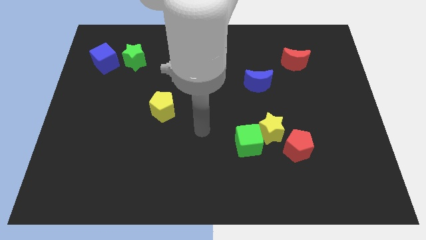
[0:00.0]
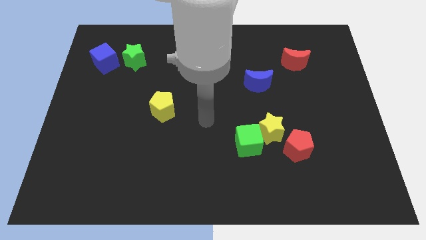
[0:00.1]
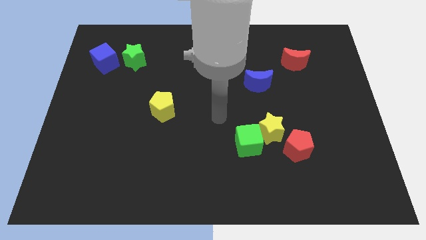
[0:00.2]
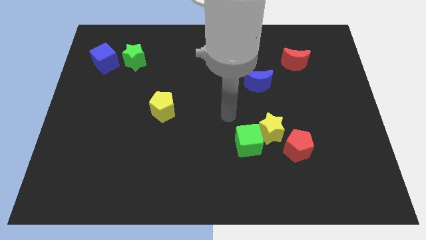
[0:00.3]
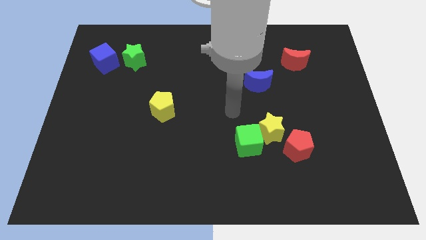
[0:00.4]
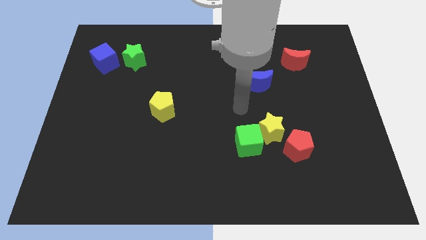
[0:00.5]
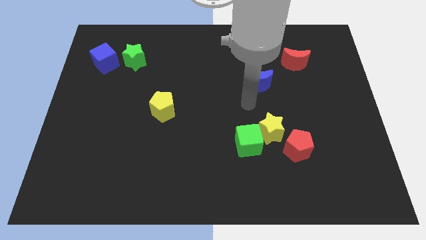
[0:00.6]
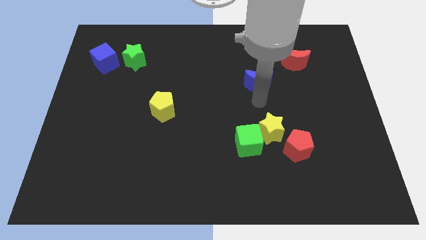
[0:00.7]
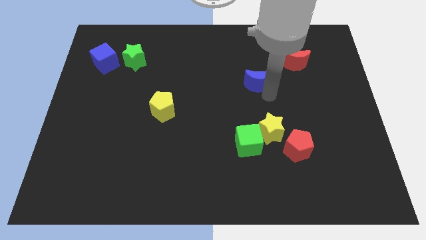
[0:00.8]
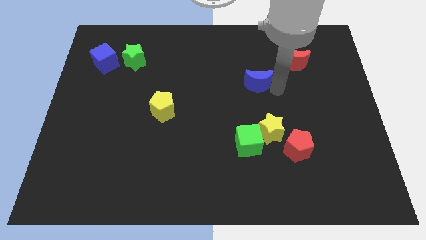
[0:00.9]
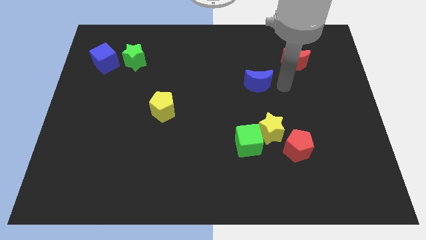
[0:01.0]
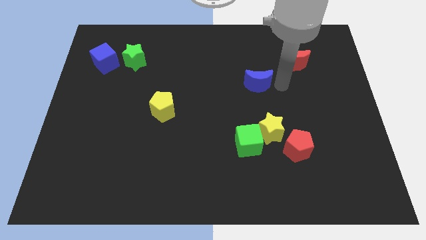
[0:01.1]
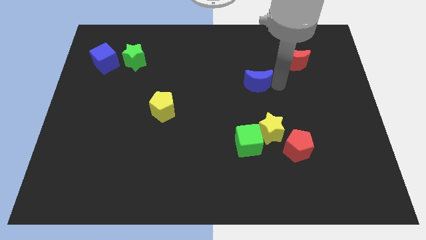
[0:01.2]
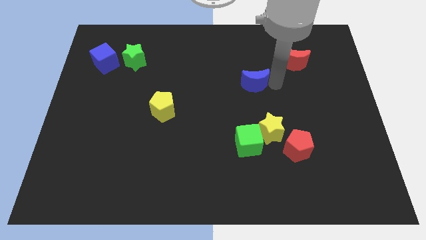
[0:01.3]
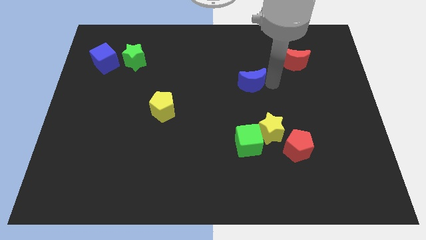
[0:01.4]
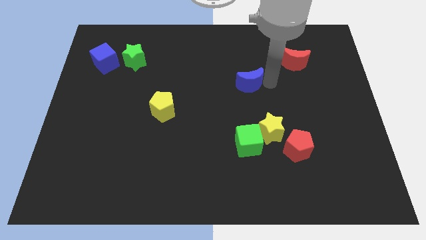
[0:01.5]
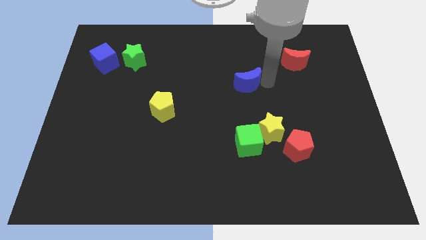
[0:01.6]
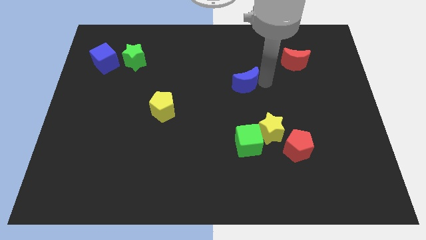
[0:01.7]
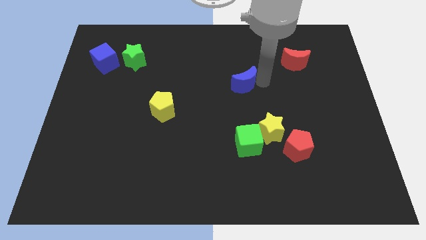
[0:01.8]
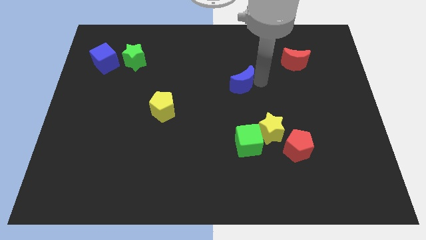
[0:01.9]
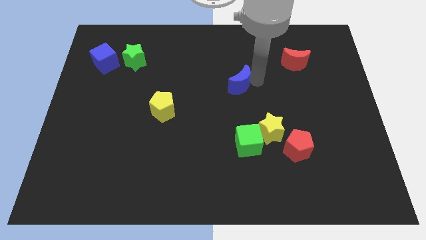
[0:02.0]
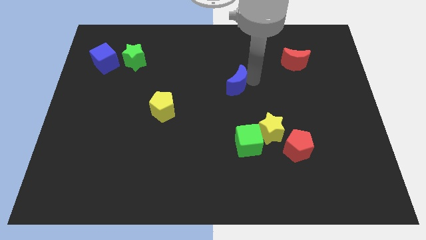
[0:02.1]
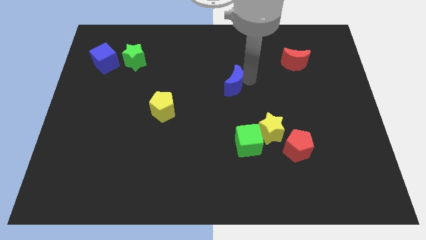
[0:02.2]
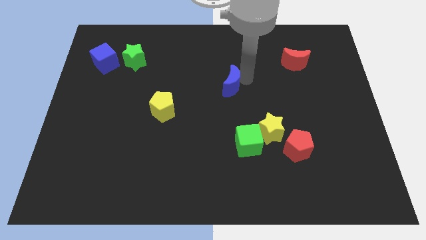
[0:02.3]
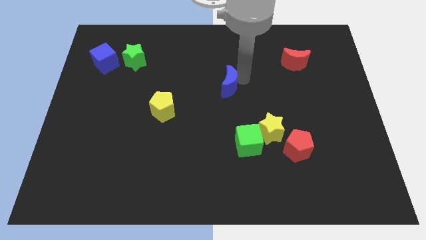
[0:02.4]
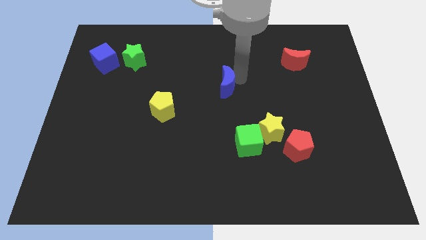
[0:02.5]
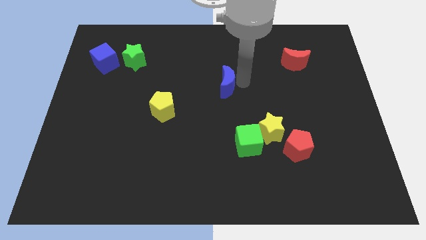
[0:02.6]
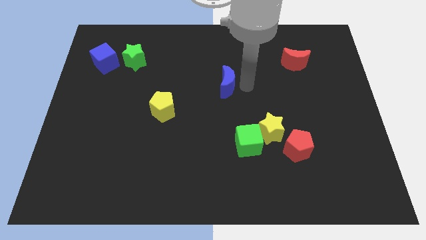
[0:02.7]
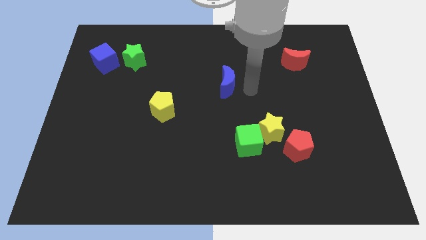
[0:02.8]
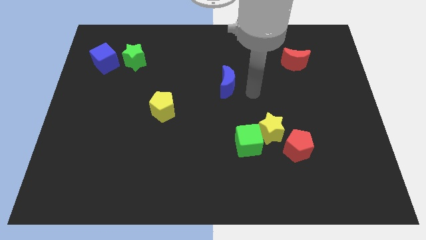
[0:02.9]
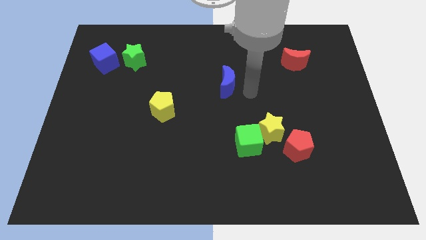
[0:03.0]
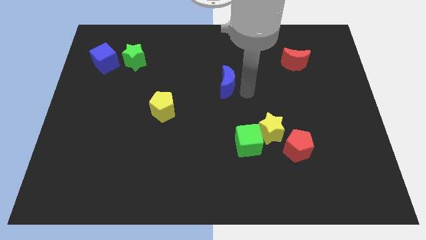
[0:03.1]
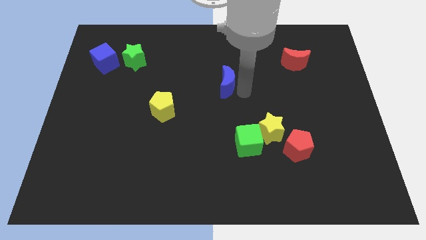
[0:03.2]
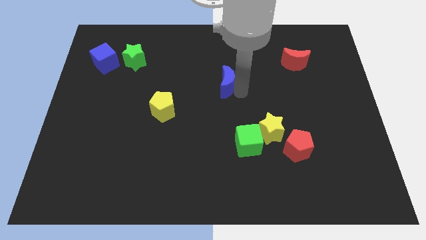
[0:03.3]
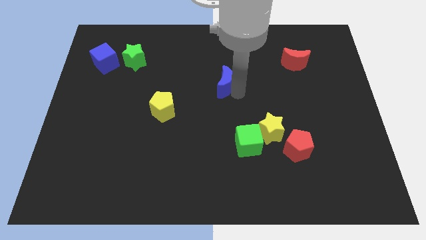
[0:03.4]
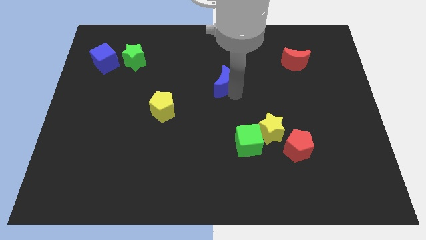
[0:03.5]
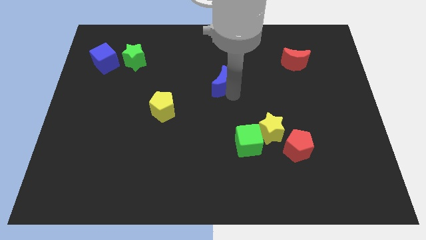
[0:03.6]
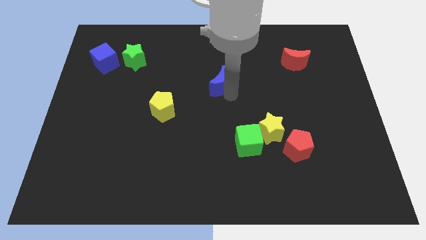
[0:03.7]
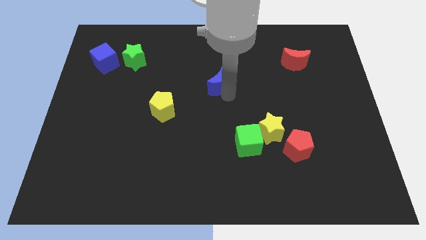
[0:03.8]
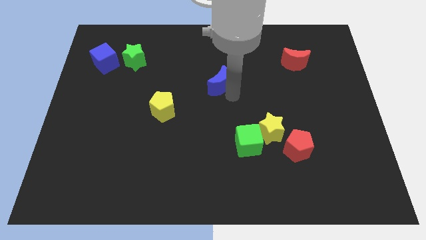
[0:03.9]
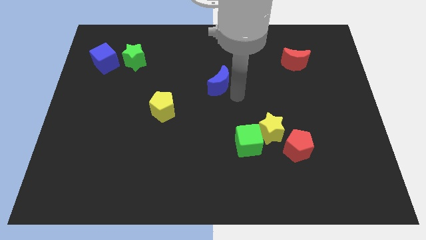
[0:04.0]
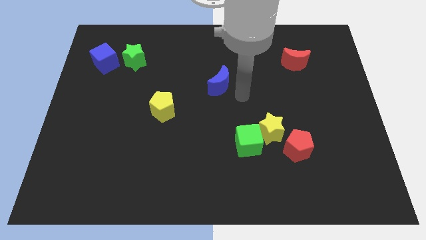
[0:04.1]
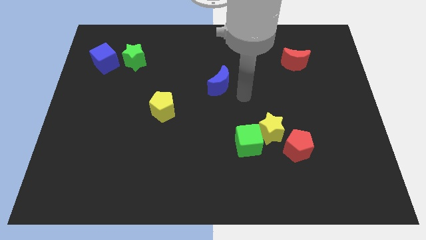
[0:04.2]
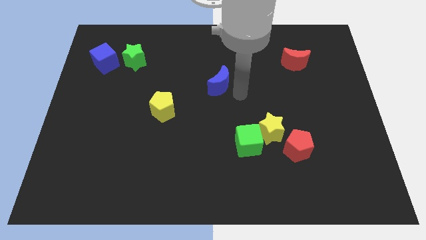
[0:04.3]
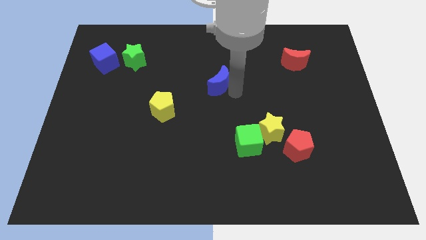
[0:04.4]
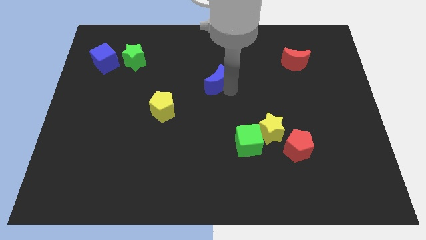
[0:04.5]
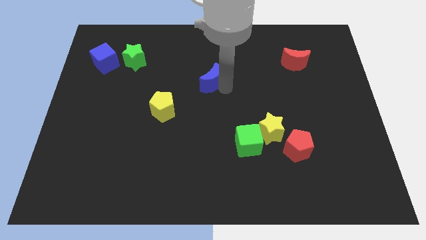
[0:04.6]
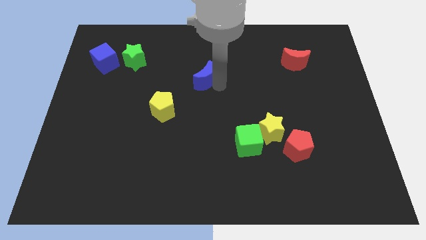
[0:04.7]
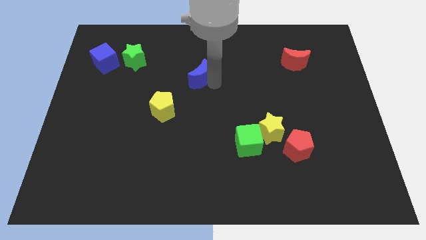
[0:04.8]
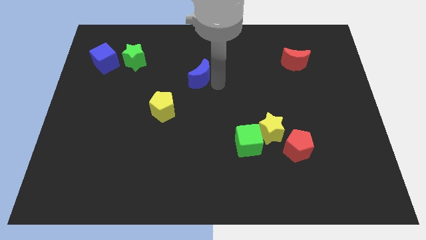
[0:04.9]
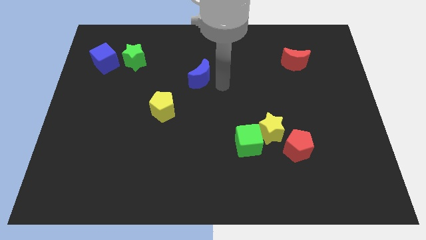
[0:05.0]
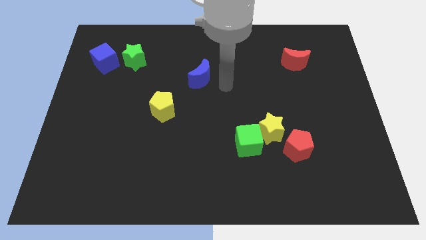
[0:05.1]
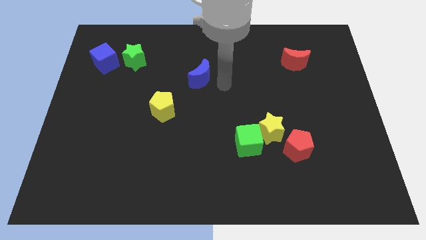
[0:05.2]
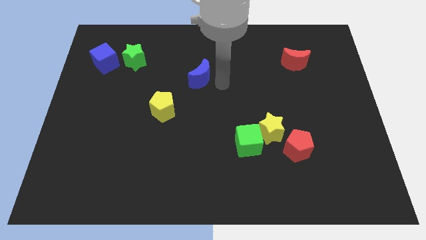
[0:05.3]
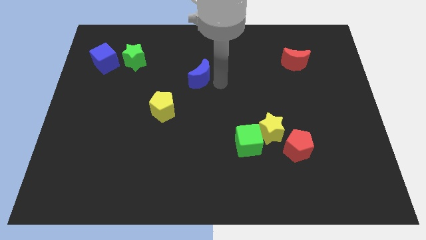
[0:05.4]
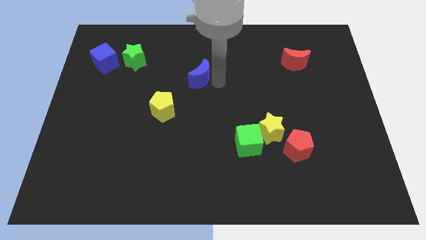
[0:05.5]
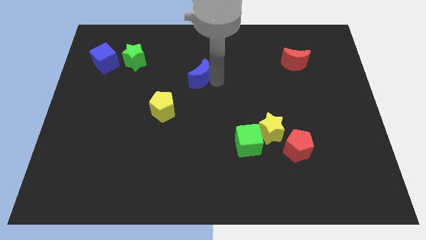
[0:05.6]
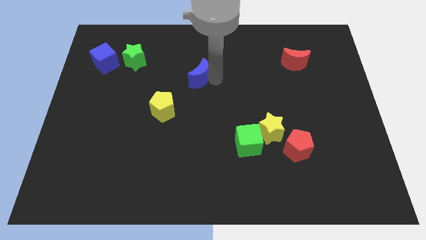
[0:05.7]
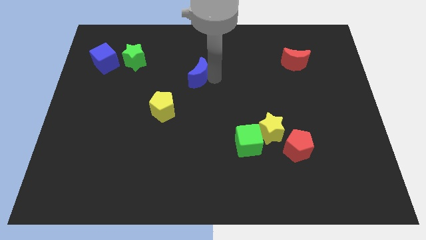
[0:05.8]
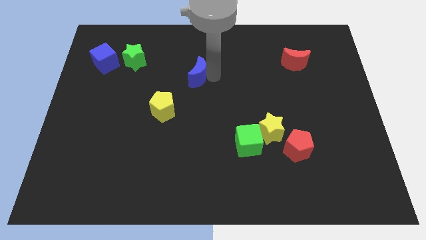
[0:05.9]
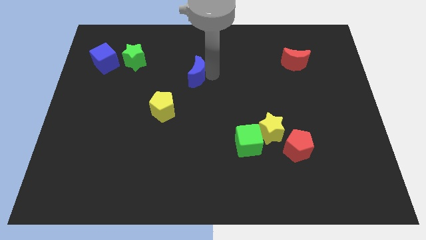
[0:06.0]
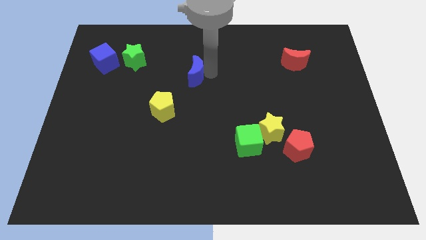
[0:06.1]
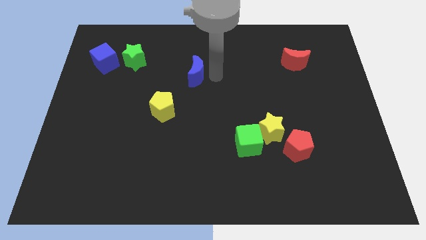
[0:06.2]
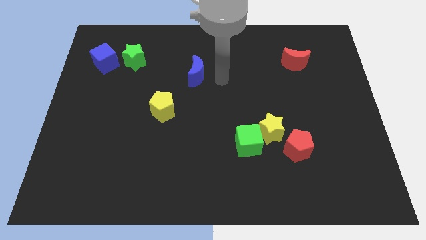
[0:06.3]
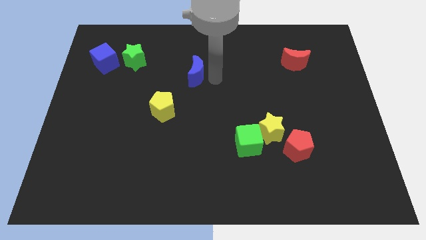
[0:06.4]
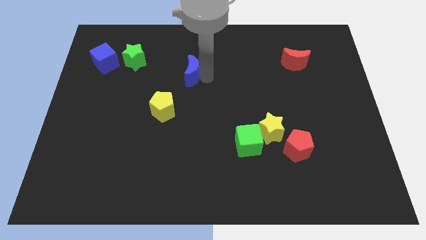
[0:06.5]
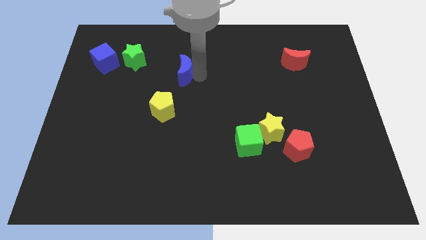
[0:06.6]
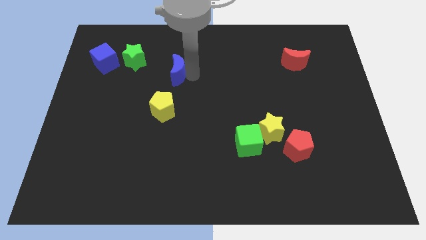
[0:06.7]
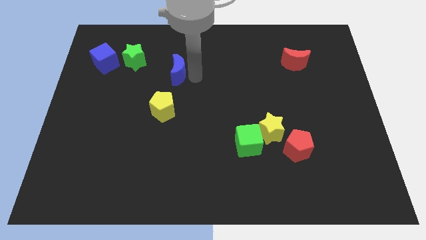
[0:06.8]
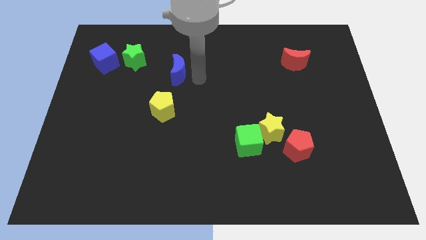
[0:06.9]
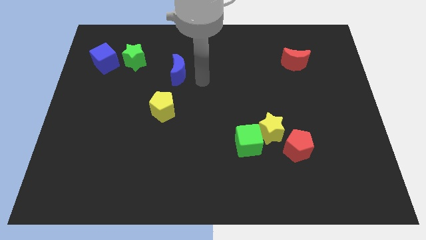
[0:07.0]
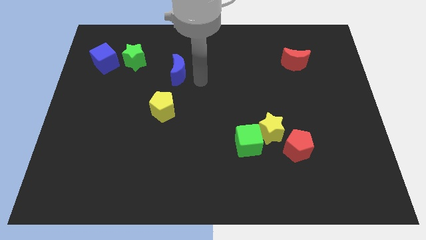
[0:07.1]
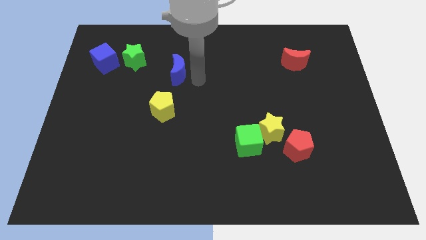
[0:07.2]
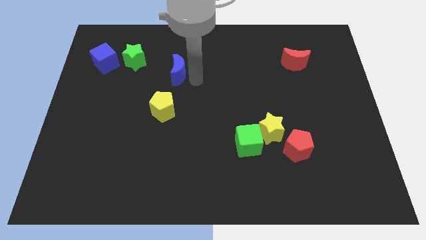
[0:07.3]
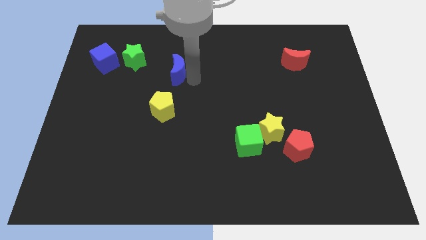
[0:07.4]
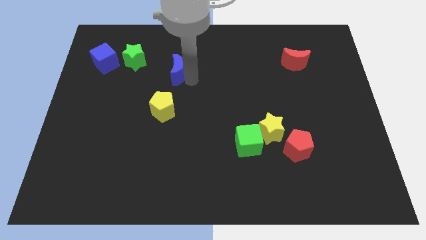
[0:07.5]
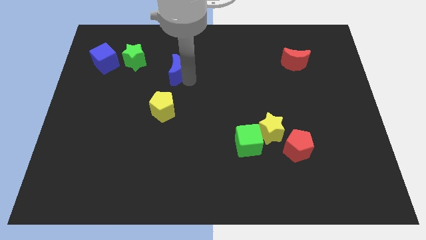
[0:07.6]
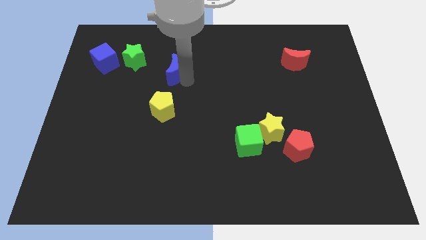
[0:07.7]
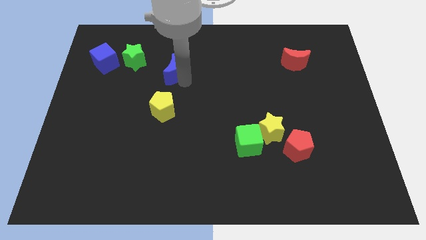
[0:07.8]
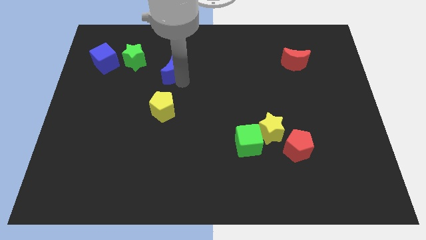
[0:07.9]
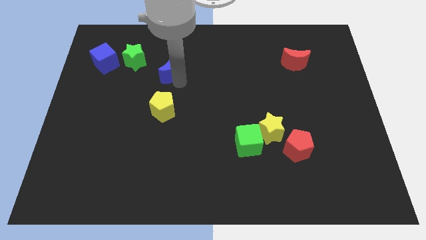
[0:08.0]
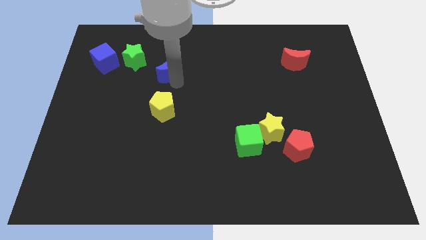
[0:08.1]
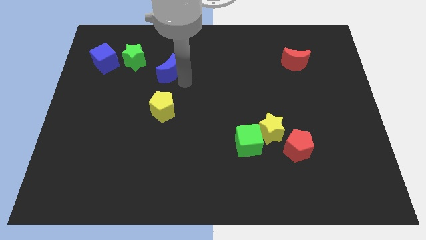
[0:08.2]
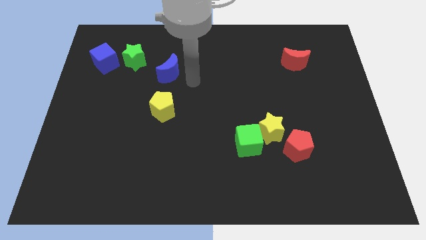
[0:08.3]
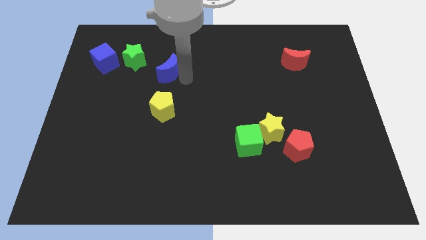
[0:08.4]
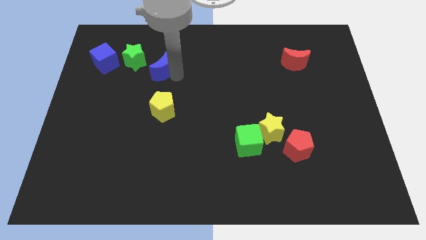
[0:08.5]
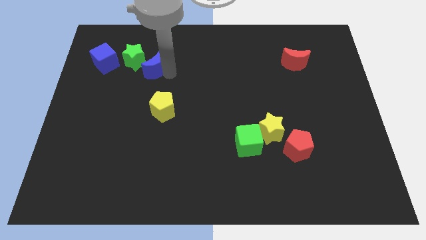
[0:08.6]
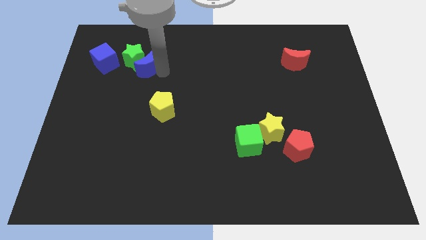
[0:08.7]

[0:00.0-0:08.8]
push the blue moon towards the green star
